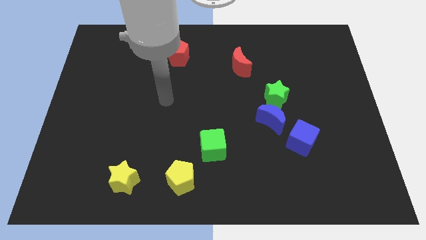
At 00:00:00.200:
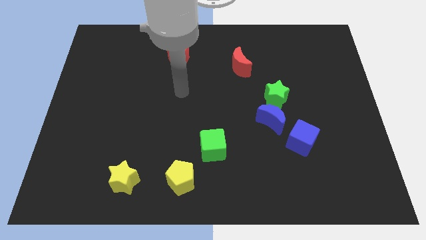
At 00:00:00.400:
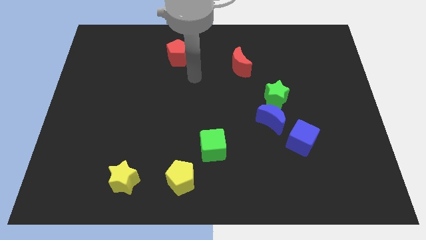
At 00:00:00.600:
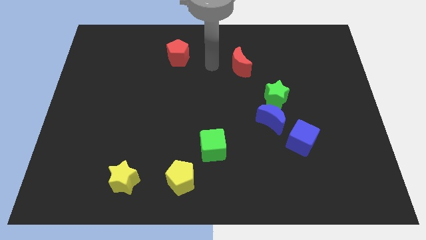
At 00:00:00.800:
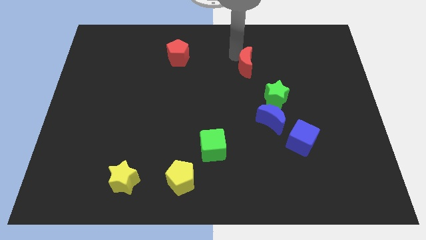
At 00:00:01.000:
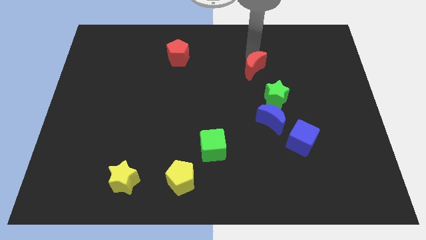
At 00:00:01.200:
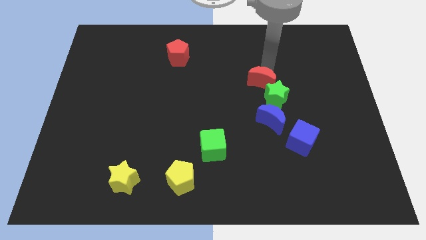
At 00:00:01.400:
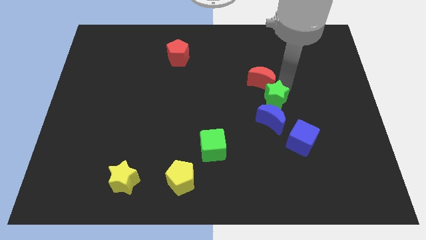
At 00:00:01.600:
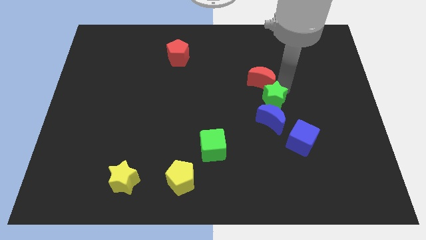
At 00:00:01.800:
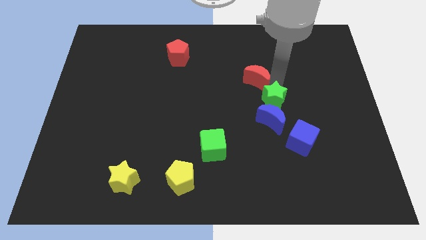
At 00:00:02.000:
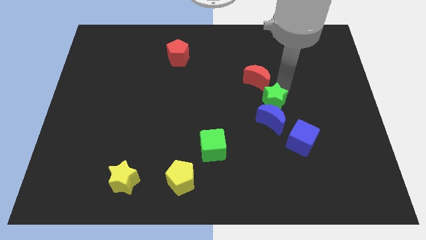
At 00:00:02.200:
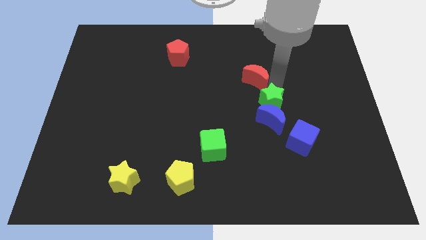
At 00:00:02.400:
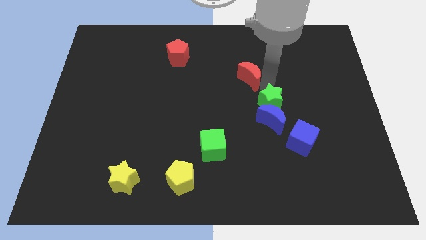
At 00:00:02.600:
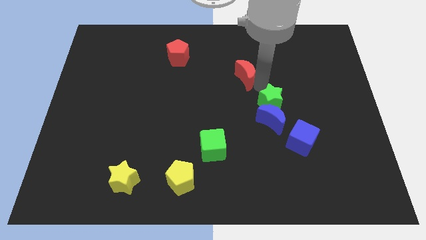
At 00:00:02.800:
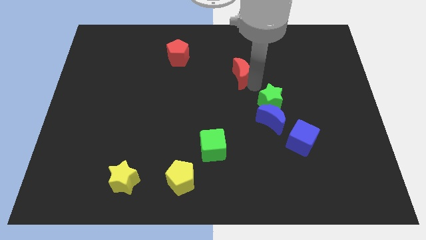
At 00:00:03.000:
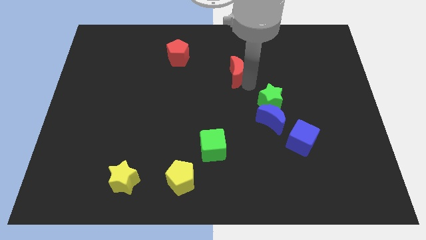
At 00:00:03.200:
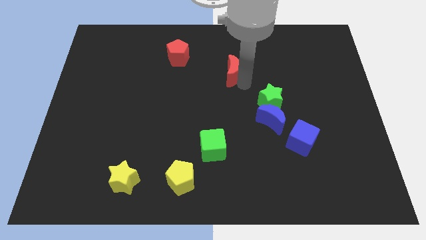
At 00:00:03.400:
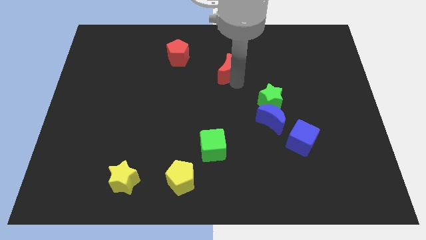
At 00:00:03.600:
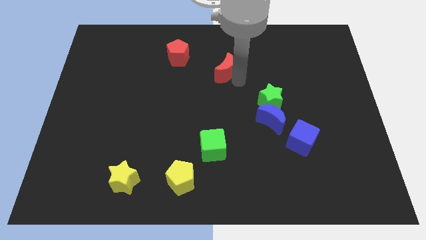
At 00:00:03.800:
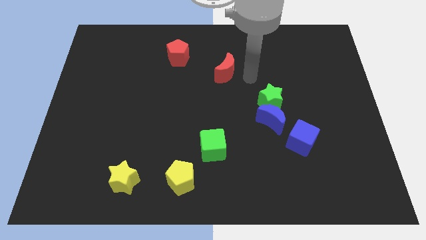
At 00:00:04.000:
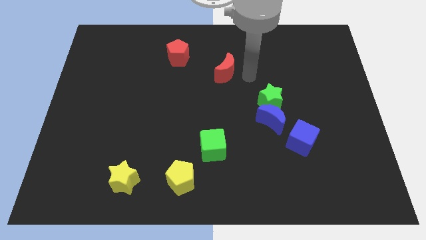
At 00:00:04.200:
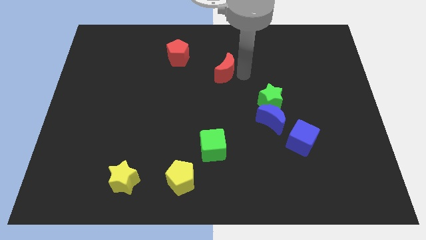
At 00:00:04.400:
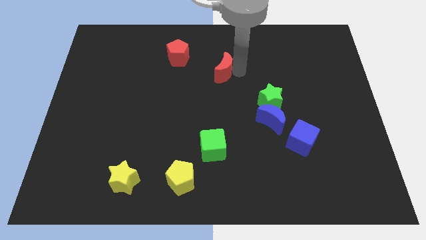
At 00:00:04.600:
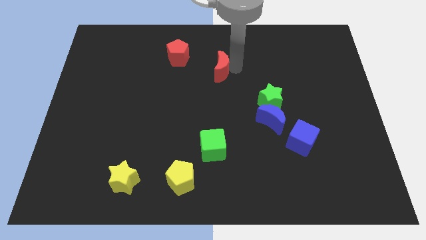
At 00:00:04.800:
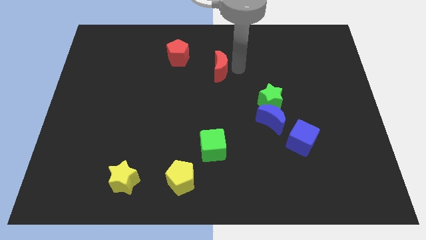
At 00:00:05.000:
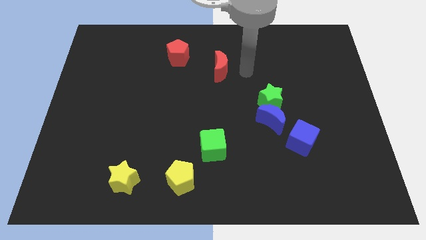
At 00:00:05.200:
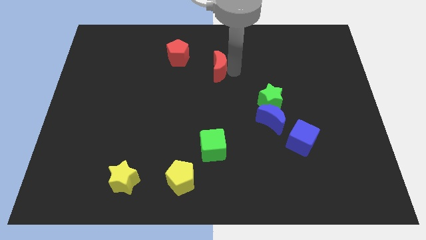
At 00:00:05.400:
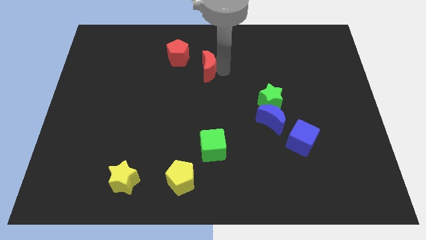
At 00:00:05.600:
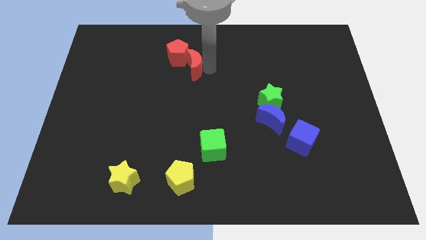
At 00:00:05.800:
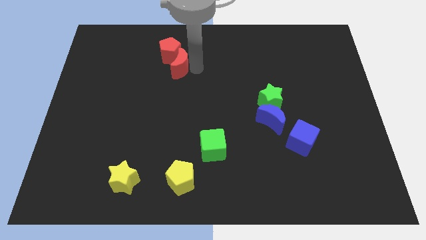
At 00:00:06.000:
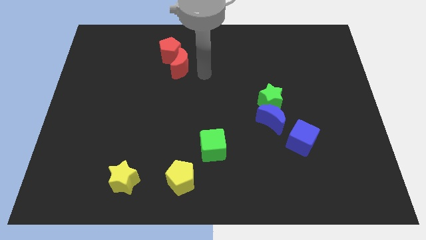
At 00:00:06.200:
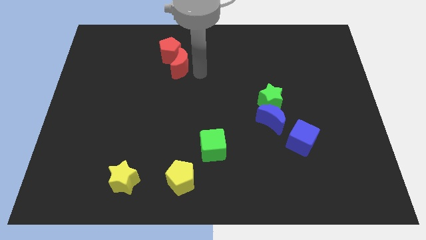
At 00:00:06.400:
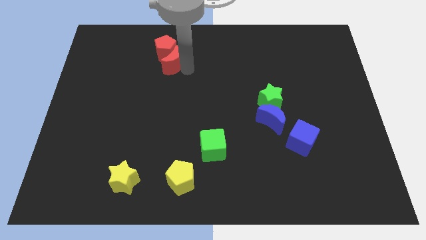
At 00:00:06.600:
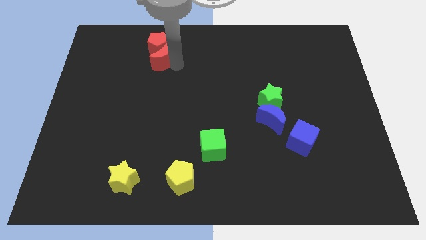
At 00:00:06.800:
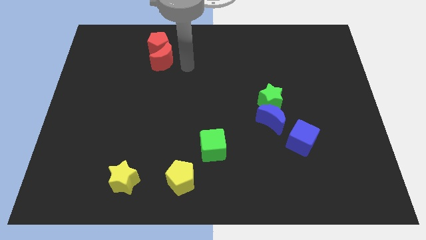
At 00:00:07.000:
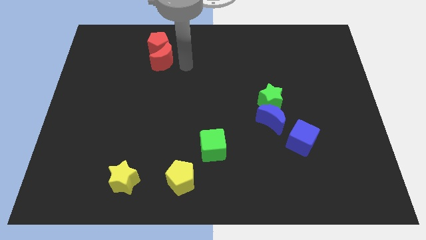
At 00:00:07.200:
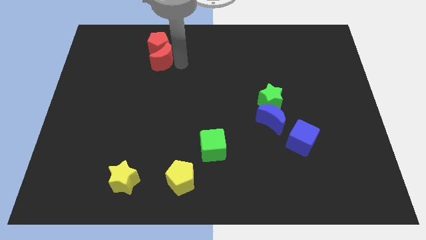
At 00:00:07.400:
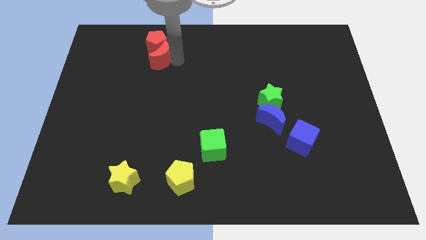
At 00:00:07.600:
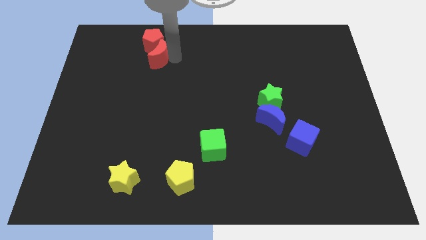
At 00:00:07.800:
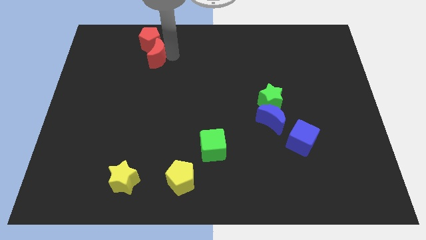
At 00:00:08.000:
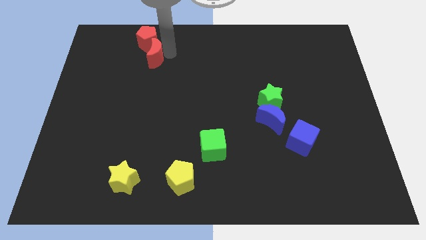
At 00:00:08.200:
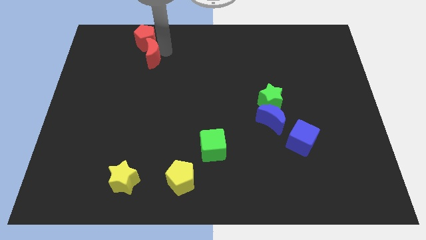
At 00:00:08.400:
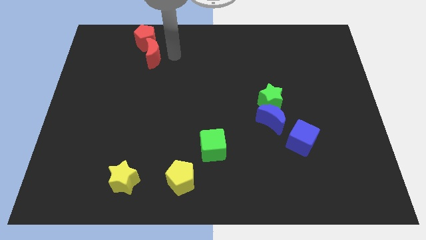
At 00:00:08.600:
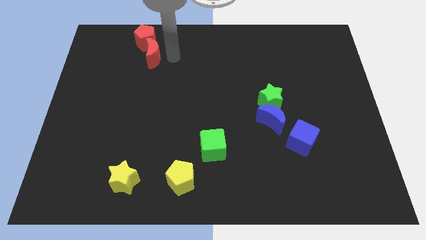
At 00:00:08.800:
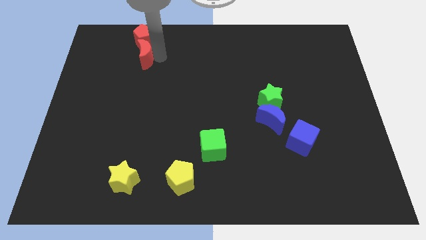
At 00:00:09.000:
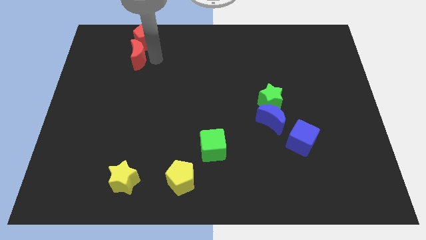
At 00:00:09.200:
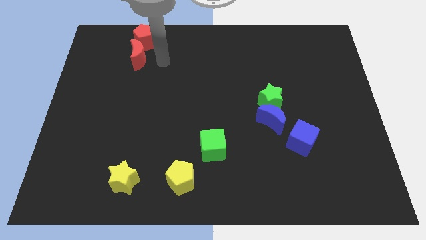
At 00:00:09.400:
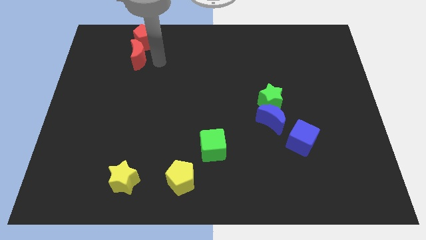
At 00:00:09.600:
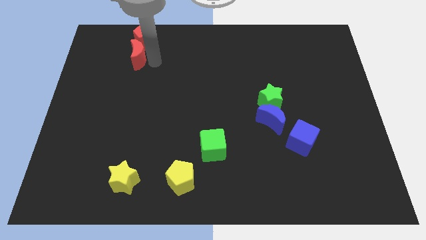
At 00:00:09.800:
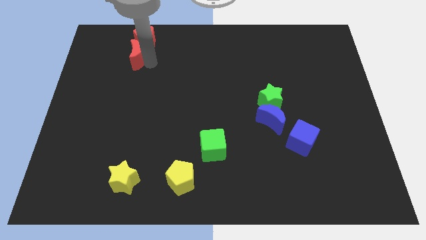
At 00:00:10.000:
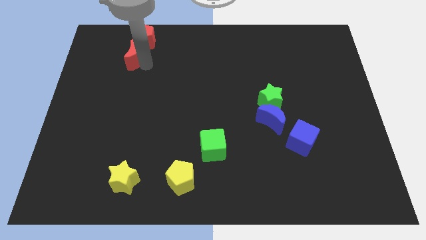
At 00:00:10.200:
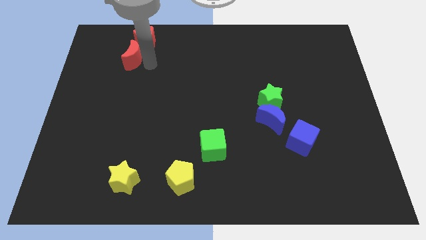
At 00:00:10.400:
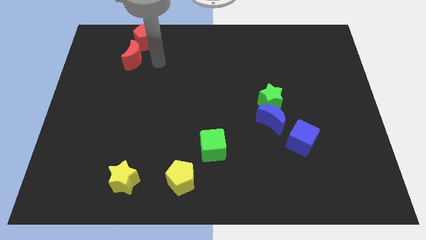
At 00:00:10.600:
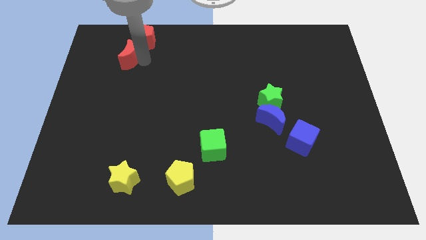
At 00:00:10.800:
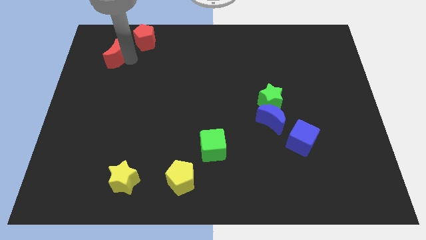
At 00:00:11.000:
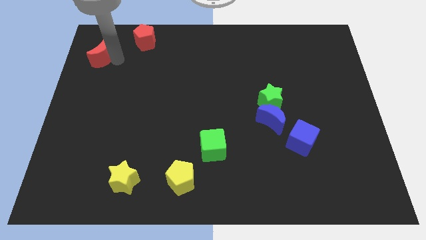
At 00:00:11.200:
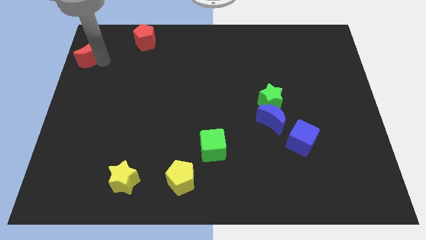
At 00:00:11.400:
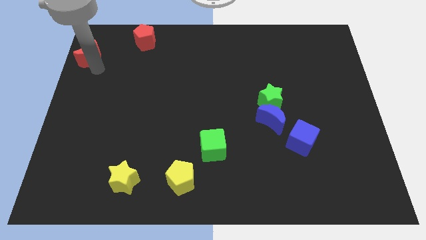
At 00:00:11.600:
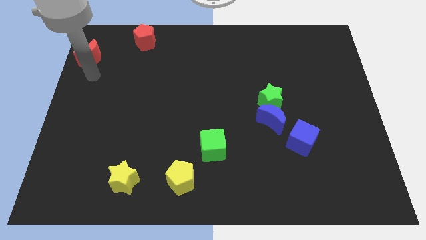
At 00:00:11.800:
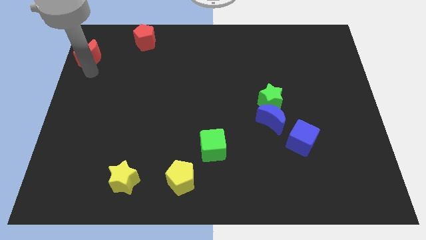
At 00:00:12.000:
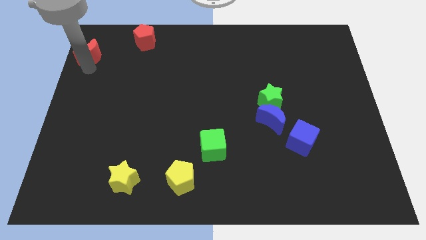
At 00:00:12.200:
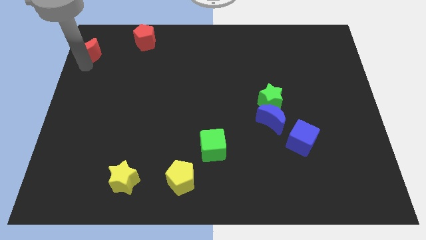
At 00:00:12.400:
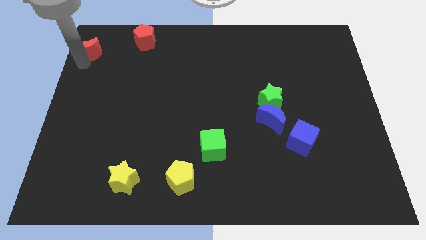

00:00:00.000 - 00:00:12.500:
move the red moon to the top left
